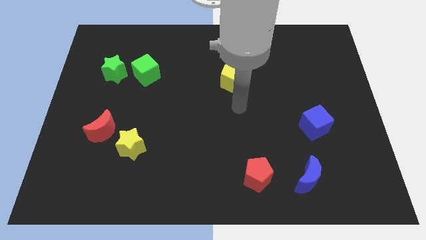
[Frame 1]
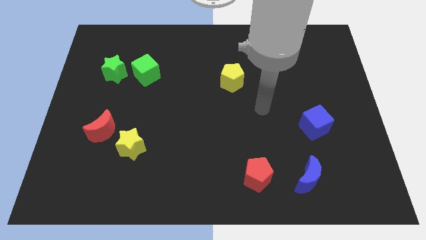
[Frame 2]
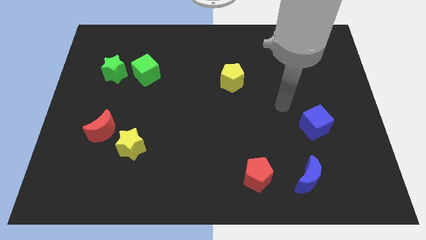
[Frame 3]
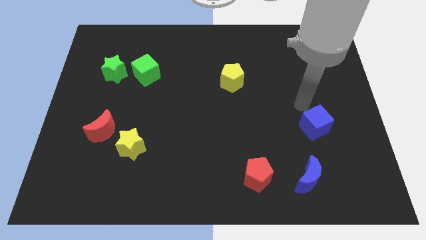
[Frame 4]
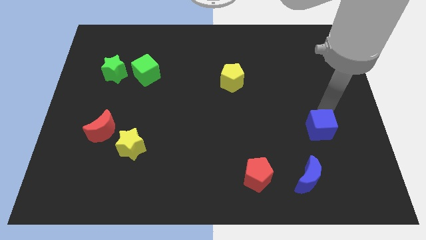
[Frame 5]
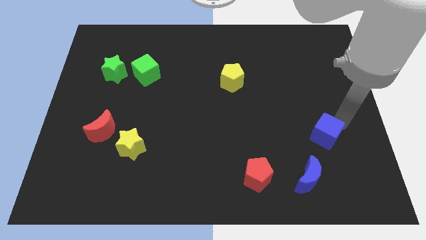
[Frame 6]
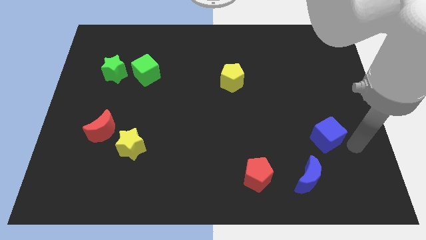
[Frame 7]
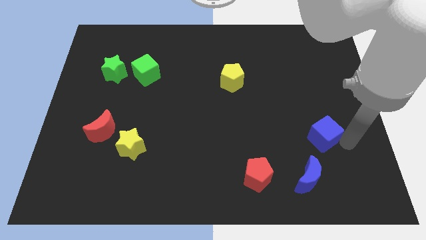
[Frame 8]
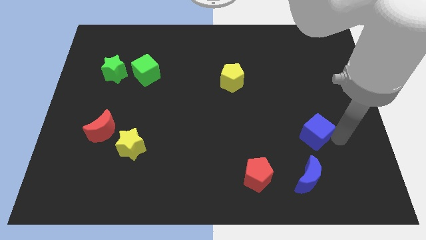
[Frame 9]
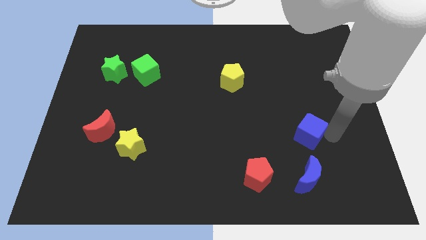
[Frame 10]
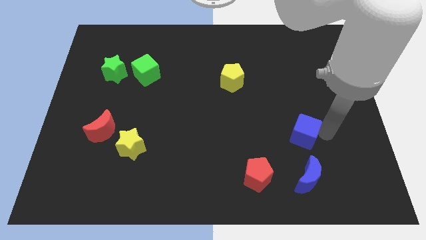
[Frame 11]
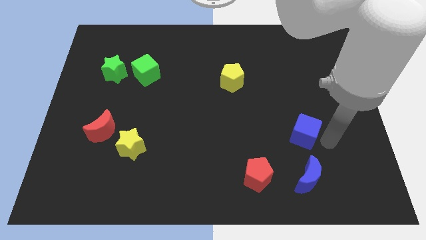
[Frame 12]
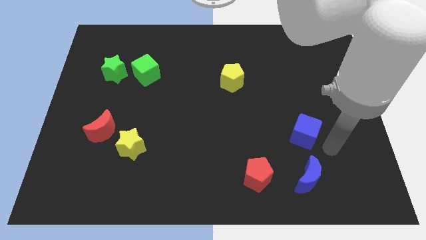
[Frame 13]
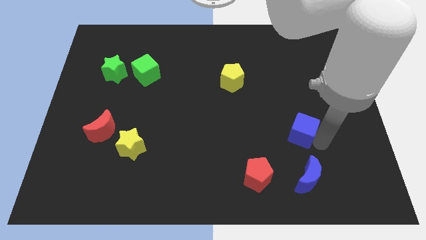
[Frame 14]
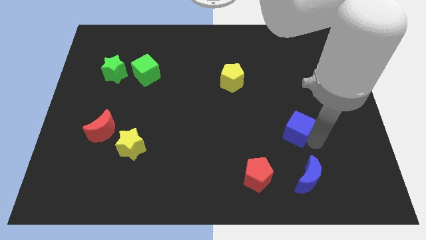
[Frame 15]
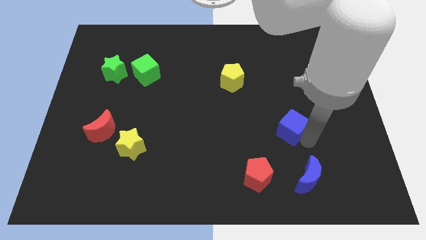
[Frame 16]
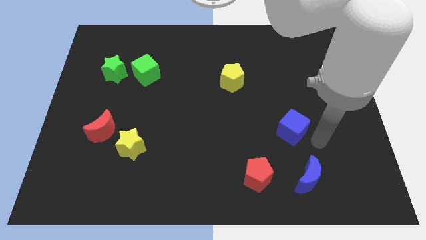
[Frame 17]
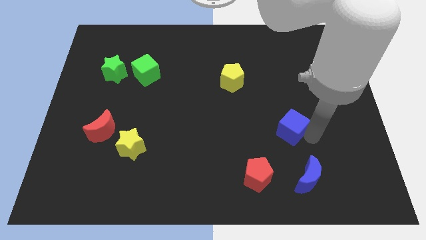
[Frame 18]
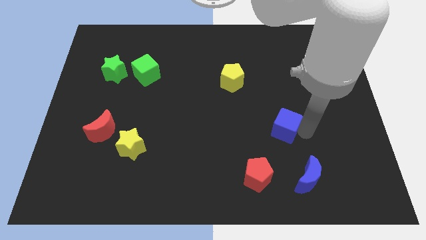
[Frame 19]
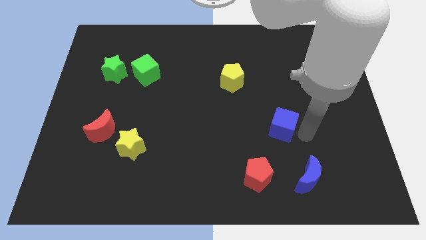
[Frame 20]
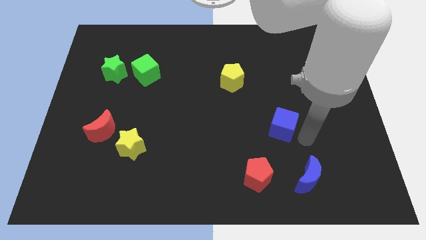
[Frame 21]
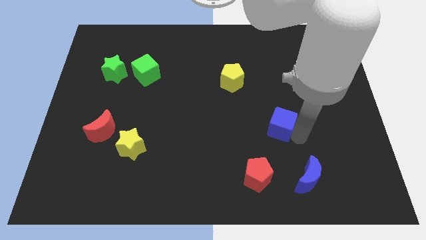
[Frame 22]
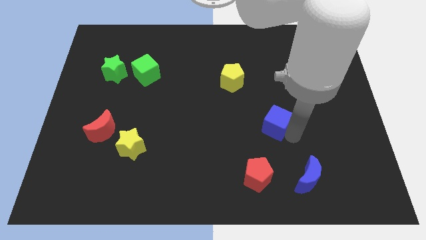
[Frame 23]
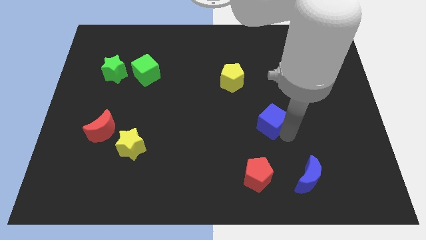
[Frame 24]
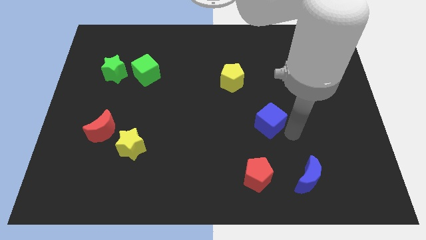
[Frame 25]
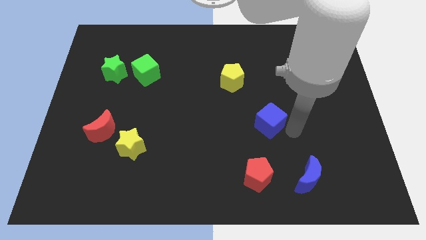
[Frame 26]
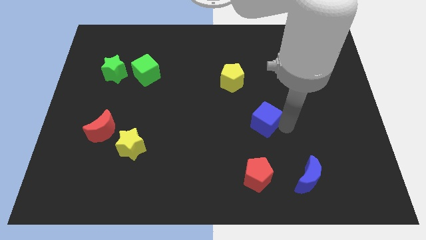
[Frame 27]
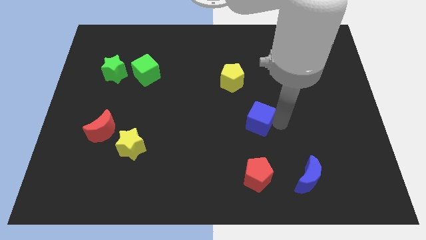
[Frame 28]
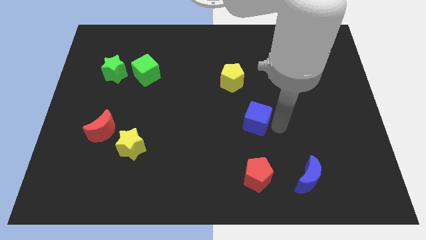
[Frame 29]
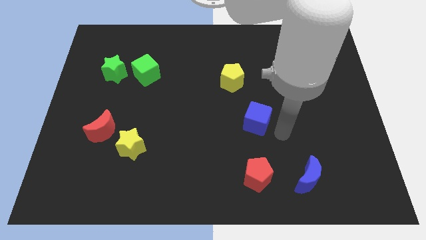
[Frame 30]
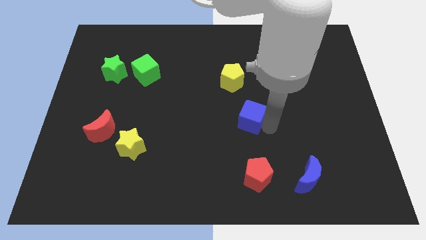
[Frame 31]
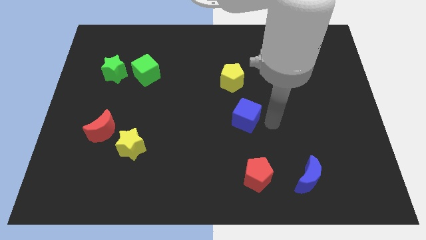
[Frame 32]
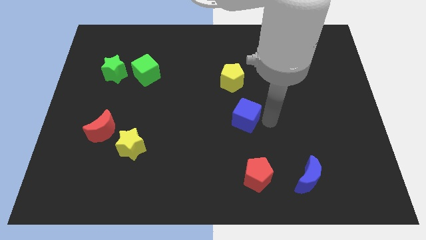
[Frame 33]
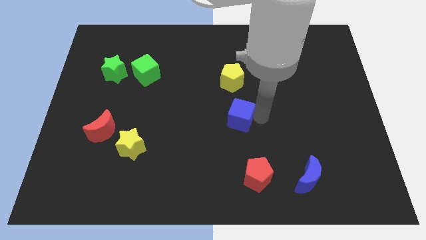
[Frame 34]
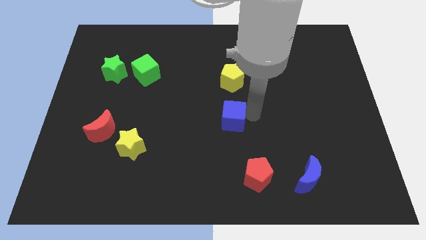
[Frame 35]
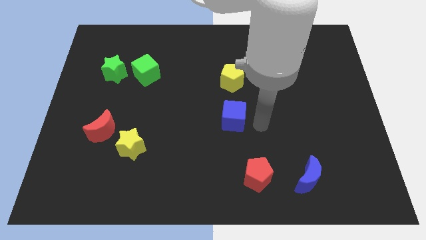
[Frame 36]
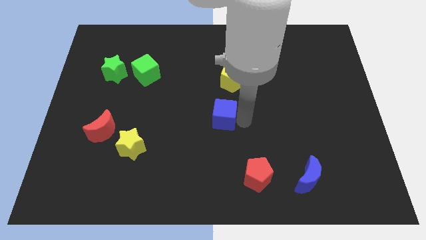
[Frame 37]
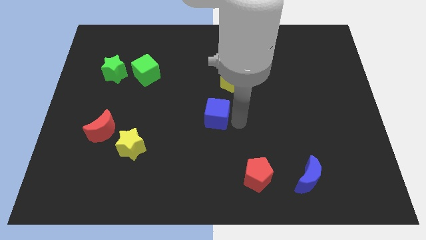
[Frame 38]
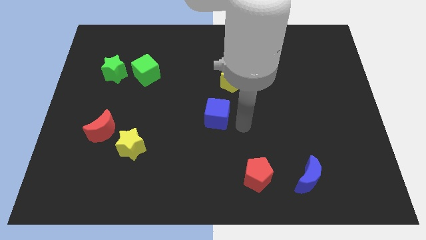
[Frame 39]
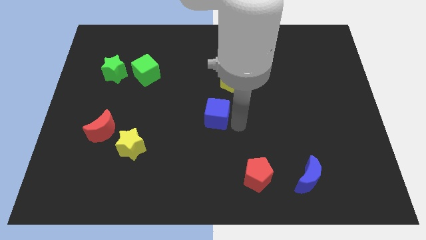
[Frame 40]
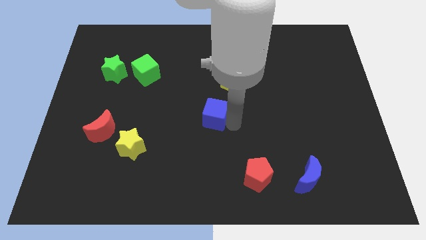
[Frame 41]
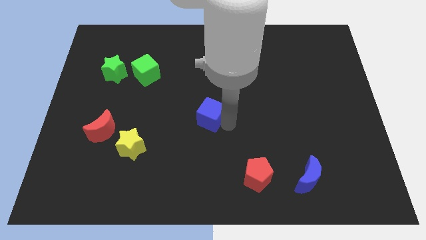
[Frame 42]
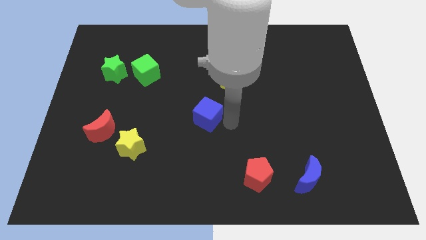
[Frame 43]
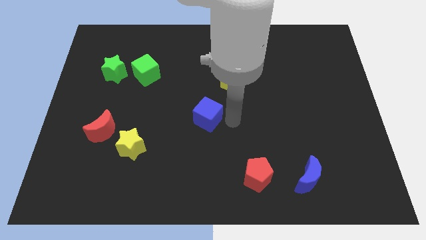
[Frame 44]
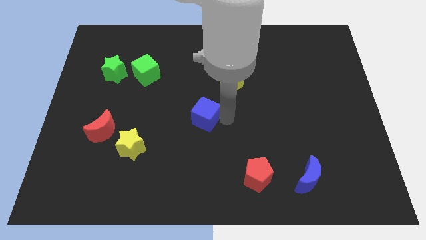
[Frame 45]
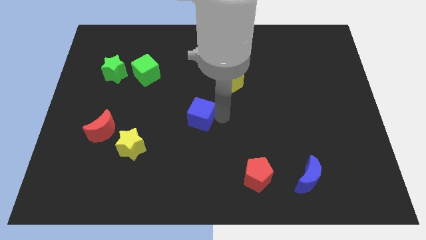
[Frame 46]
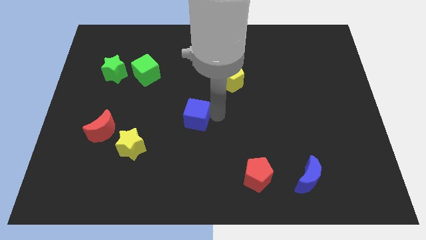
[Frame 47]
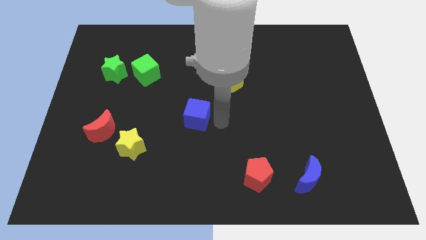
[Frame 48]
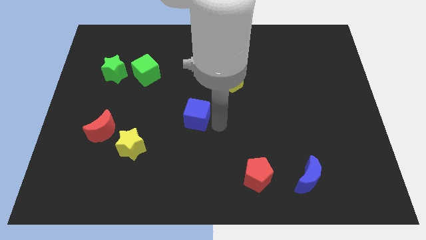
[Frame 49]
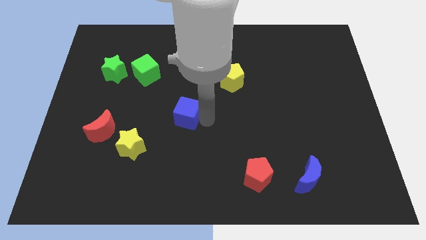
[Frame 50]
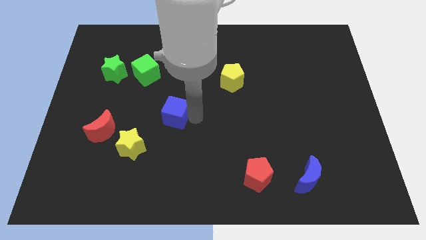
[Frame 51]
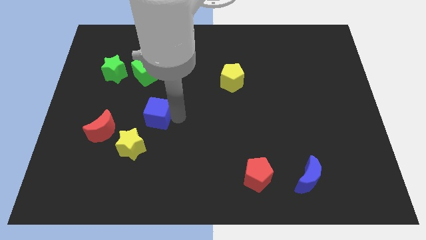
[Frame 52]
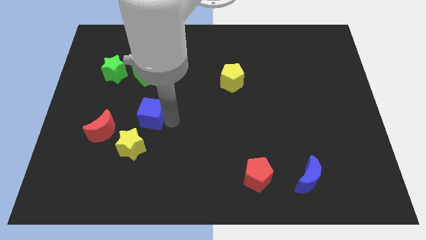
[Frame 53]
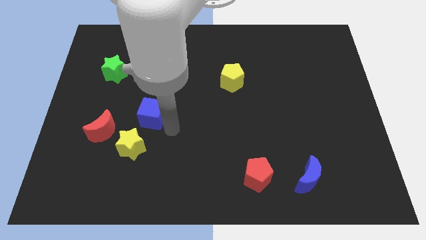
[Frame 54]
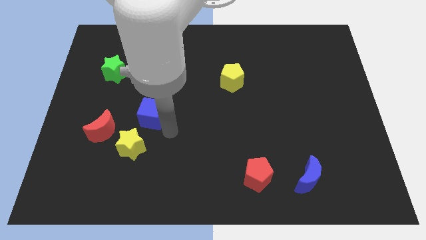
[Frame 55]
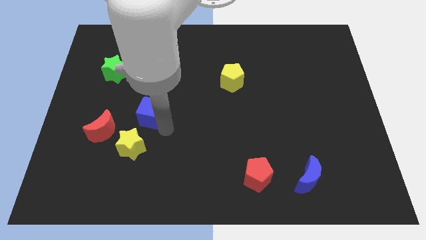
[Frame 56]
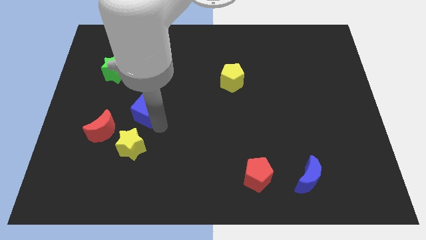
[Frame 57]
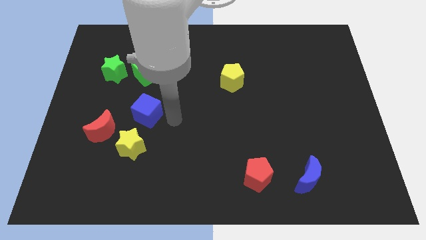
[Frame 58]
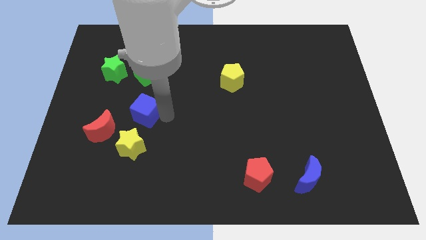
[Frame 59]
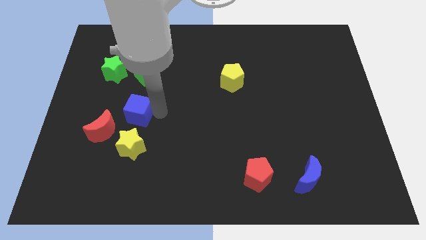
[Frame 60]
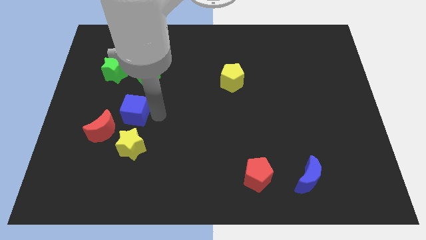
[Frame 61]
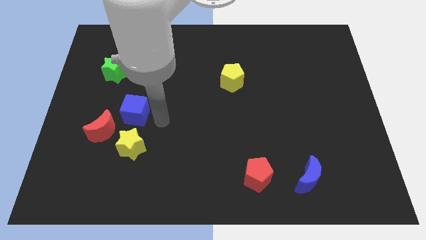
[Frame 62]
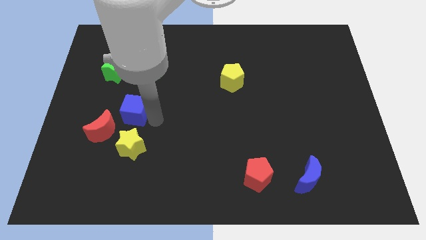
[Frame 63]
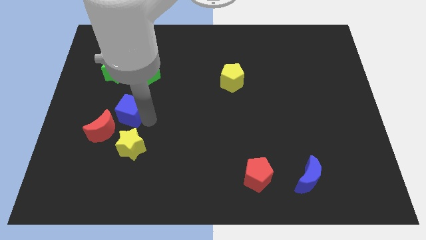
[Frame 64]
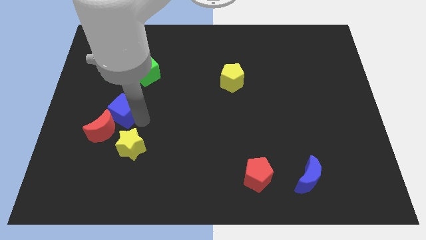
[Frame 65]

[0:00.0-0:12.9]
put the blue cube to the bottom side of the green star
